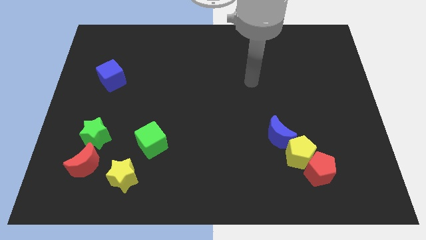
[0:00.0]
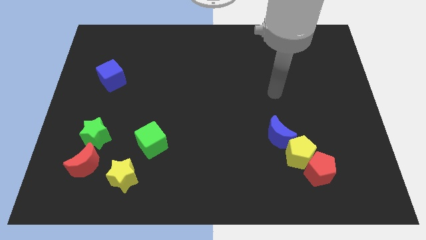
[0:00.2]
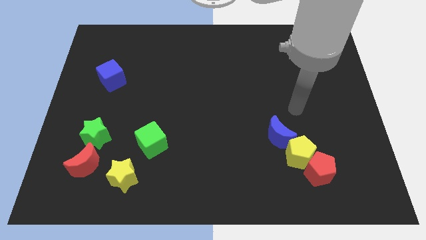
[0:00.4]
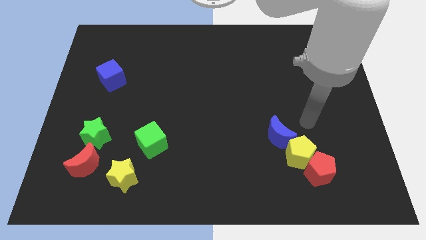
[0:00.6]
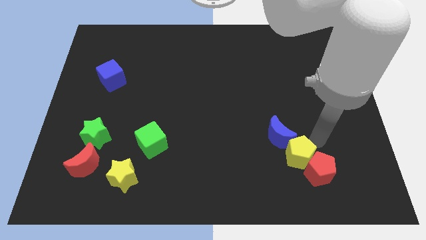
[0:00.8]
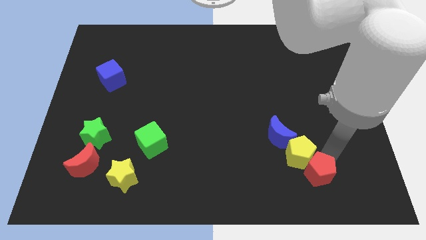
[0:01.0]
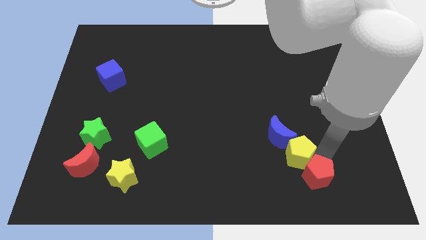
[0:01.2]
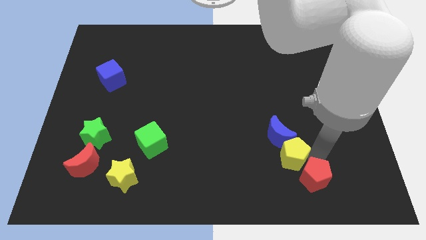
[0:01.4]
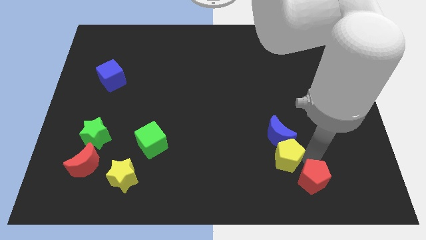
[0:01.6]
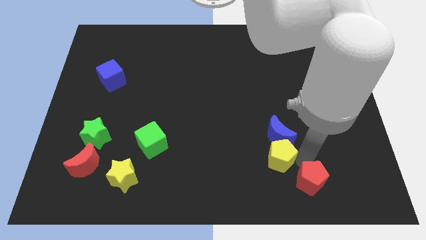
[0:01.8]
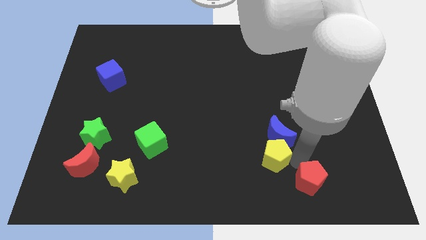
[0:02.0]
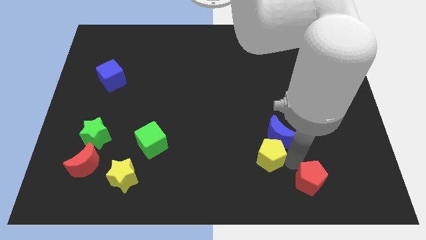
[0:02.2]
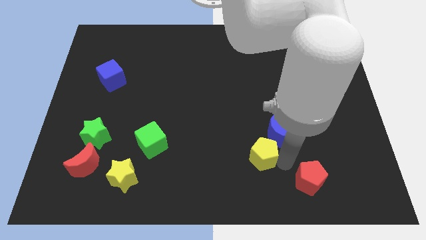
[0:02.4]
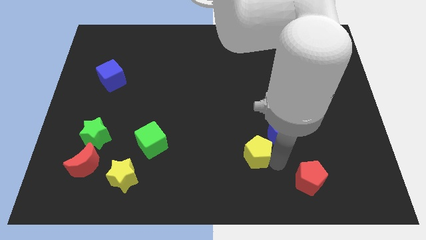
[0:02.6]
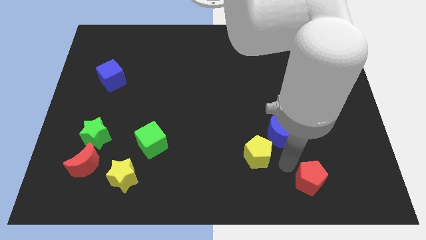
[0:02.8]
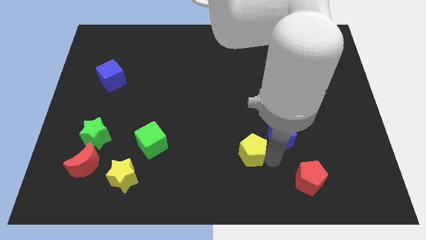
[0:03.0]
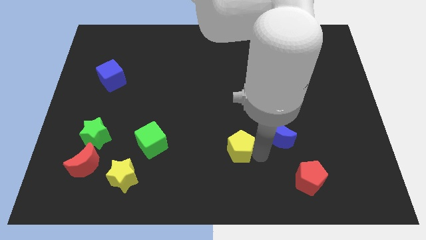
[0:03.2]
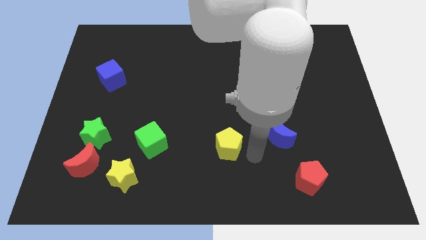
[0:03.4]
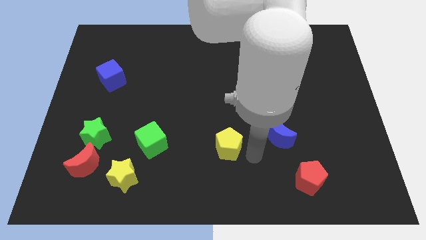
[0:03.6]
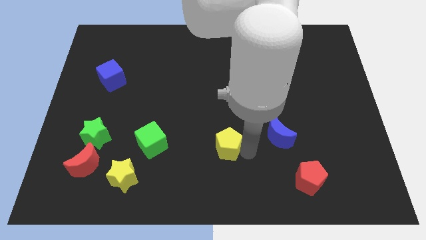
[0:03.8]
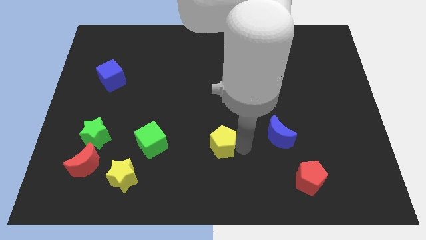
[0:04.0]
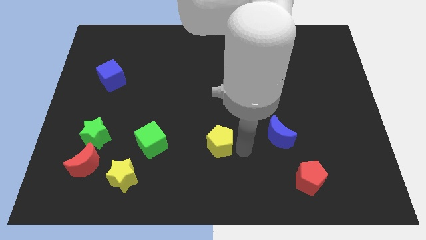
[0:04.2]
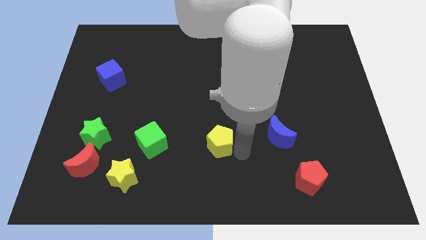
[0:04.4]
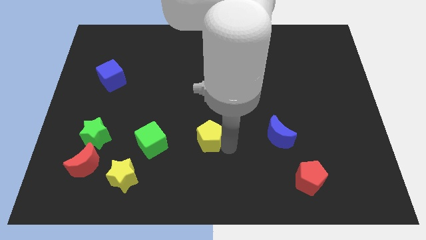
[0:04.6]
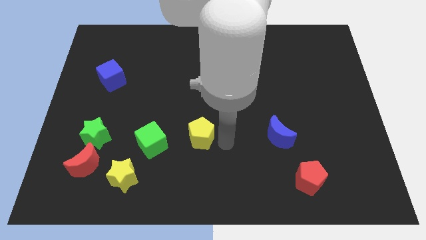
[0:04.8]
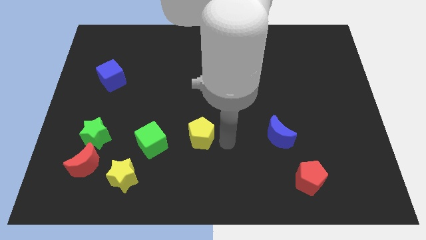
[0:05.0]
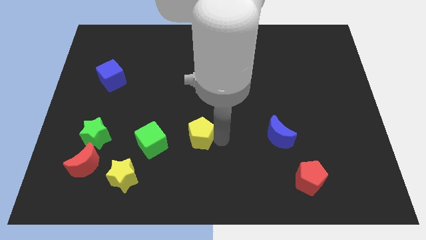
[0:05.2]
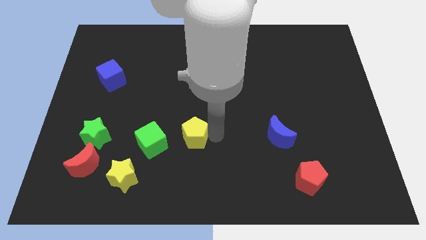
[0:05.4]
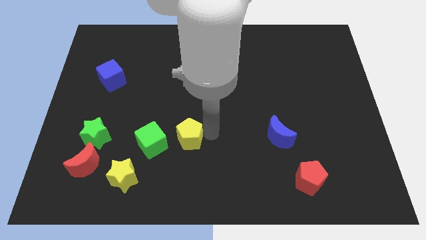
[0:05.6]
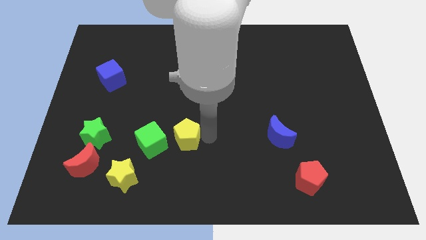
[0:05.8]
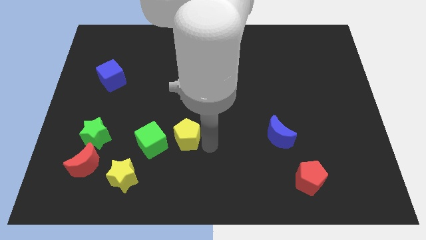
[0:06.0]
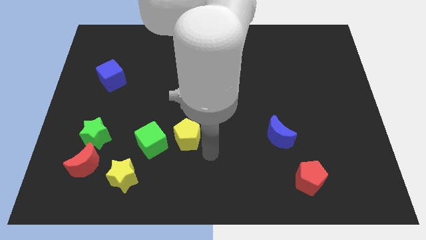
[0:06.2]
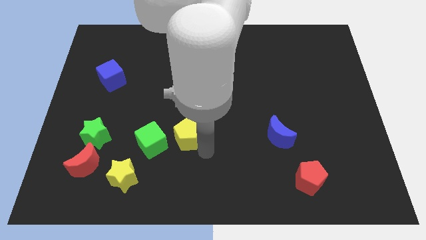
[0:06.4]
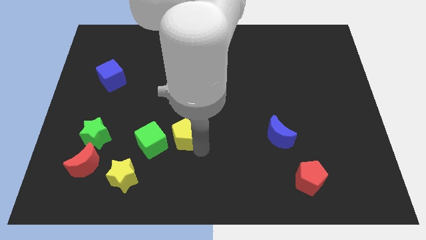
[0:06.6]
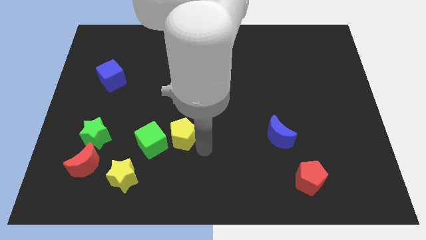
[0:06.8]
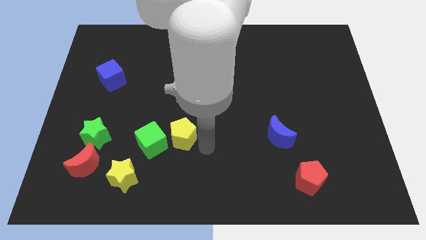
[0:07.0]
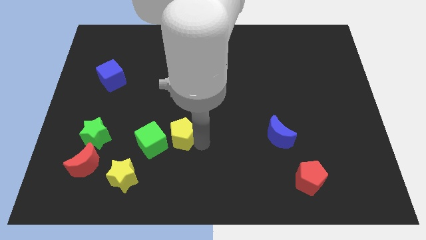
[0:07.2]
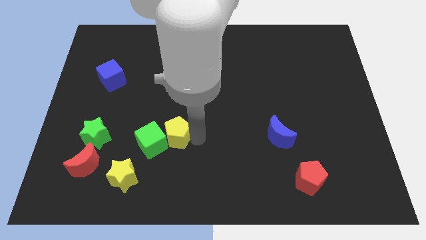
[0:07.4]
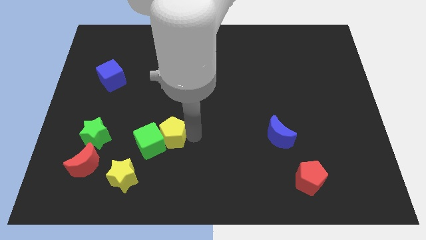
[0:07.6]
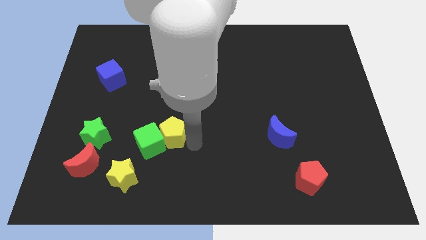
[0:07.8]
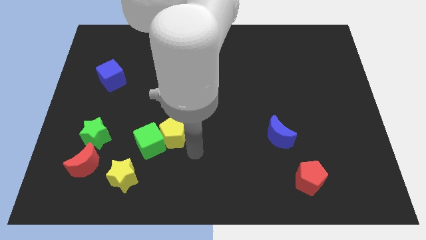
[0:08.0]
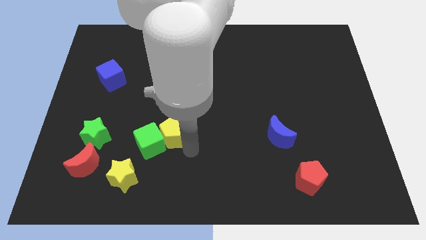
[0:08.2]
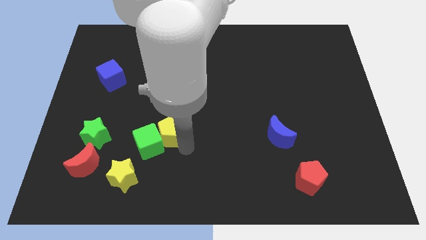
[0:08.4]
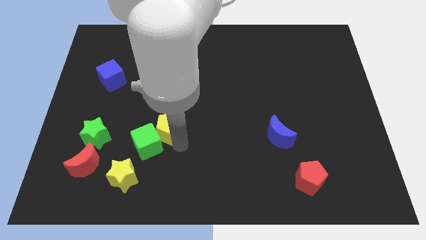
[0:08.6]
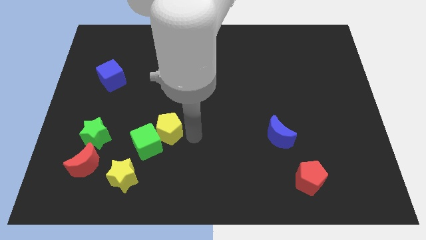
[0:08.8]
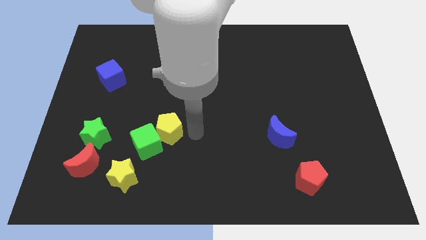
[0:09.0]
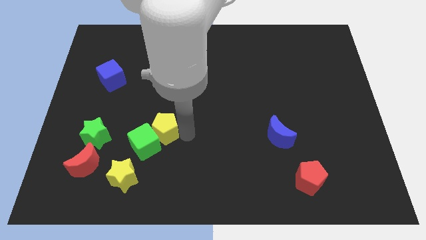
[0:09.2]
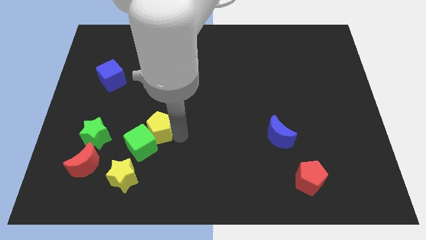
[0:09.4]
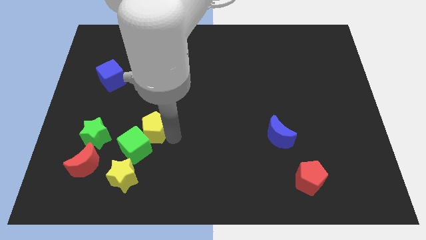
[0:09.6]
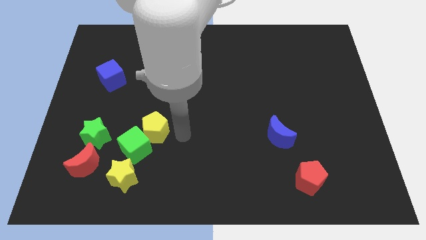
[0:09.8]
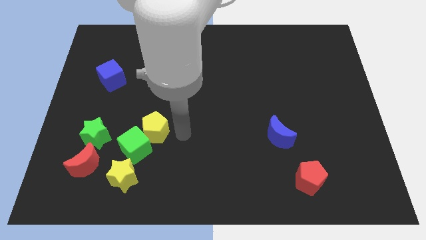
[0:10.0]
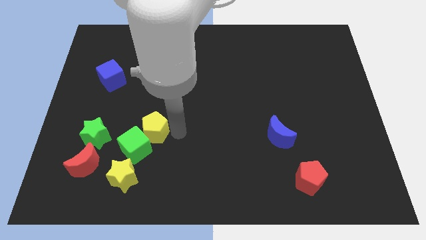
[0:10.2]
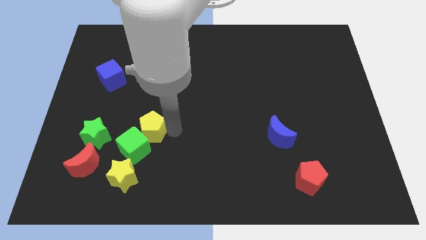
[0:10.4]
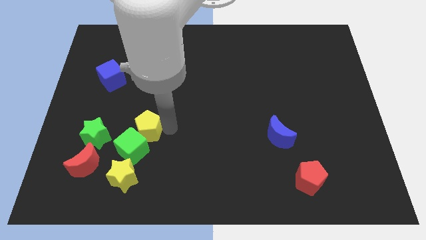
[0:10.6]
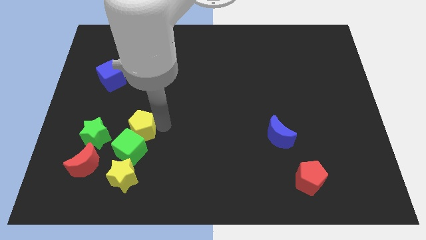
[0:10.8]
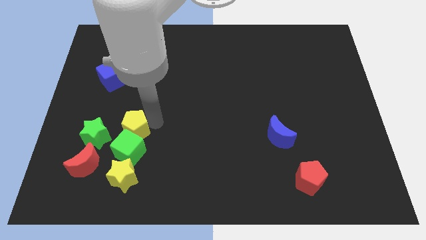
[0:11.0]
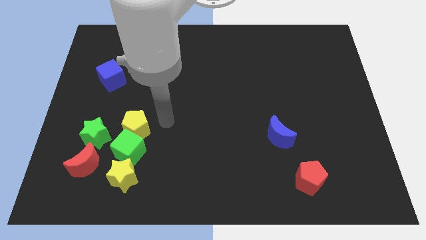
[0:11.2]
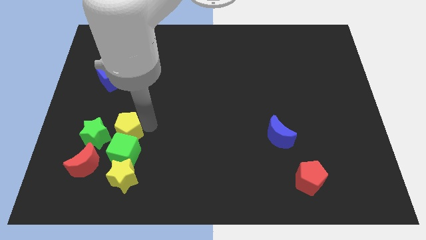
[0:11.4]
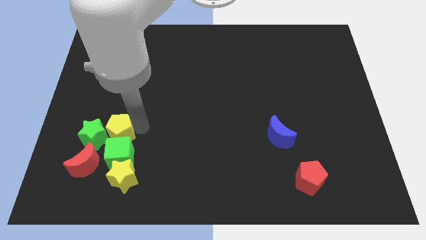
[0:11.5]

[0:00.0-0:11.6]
move the yellow pentagon towards the green star

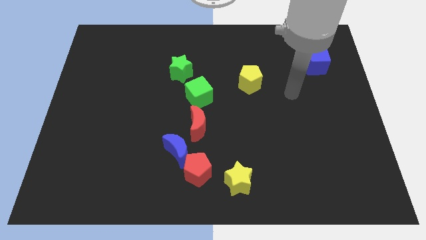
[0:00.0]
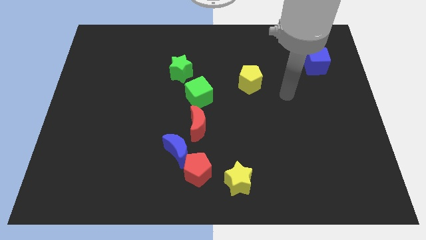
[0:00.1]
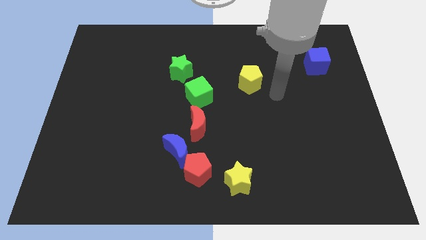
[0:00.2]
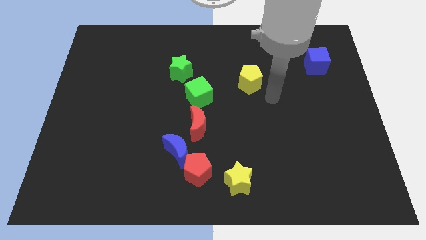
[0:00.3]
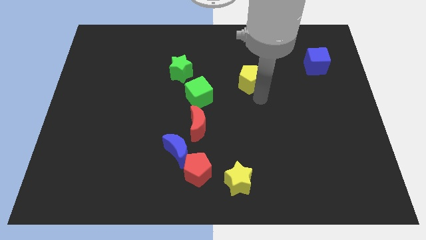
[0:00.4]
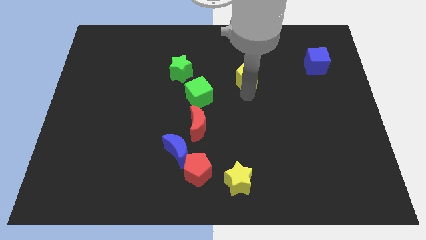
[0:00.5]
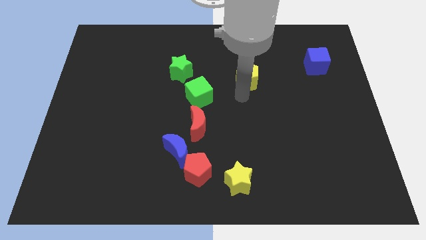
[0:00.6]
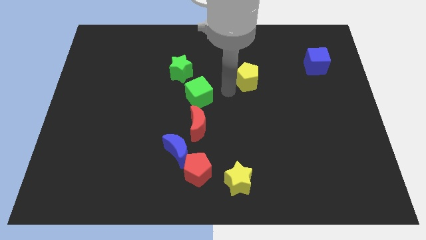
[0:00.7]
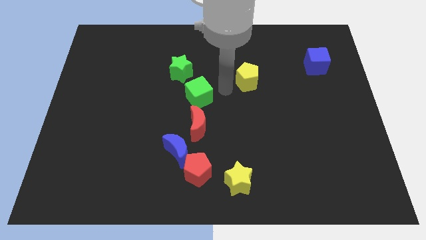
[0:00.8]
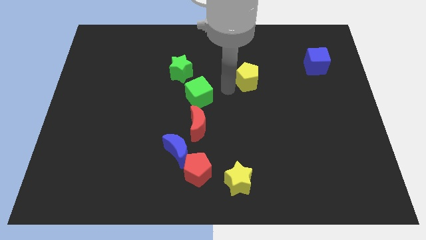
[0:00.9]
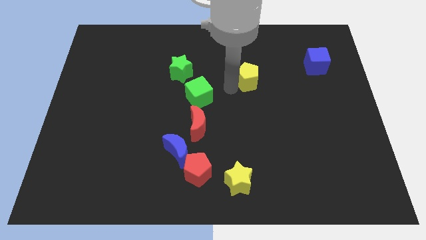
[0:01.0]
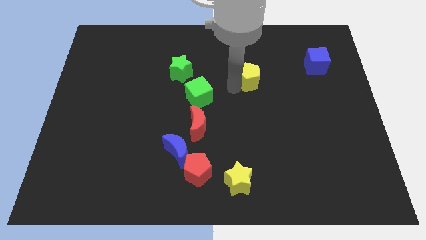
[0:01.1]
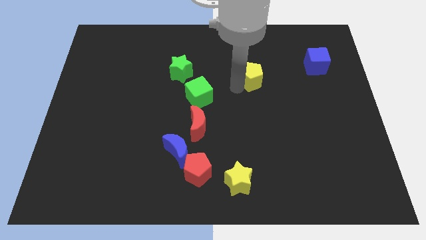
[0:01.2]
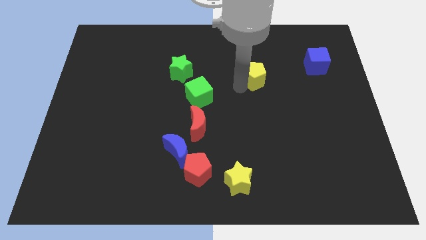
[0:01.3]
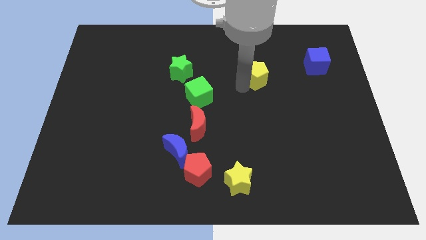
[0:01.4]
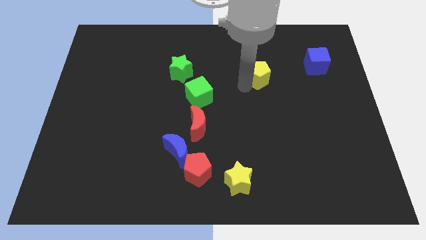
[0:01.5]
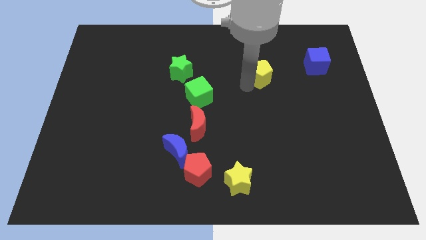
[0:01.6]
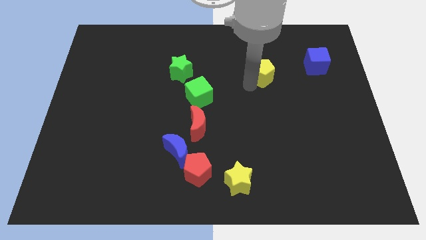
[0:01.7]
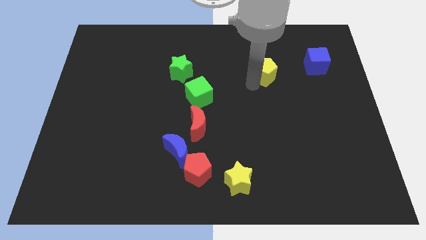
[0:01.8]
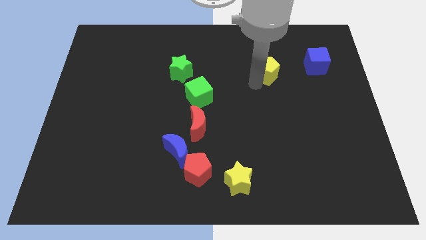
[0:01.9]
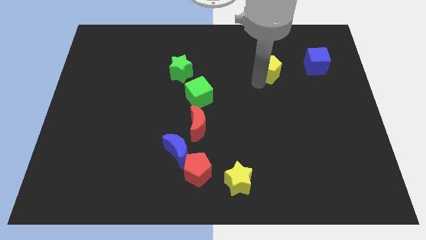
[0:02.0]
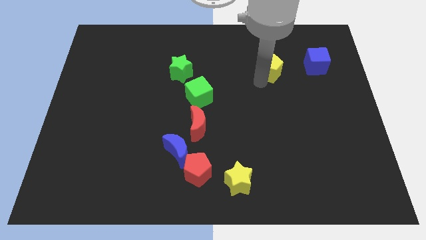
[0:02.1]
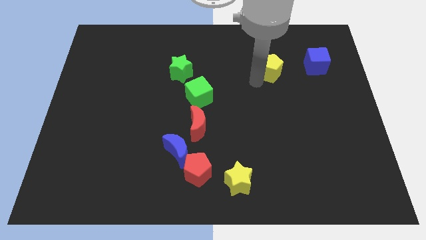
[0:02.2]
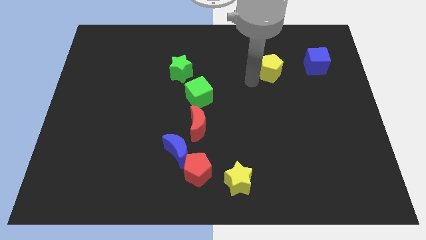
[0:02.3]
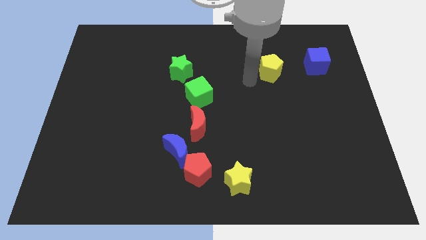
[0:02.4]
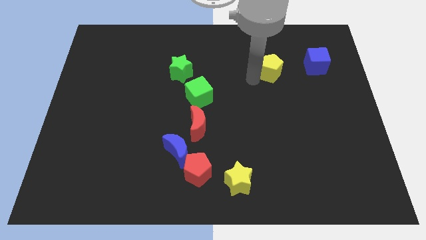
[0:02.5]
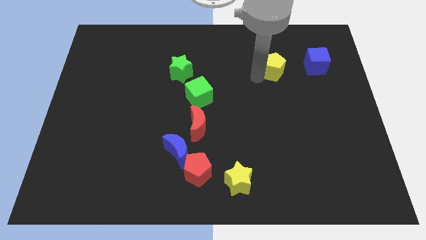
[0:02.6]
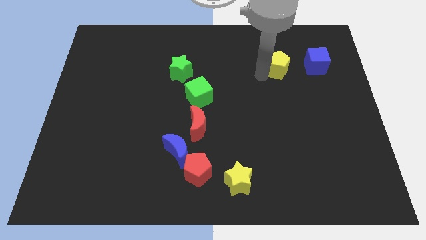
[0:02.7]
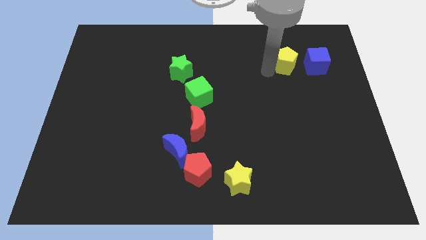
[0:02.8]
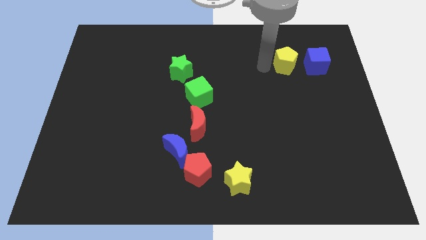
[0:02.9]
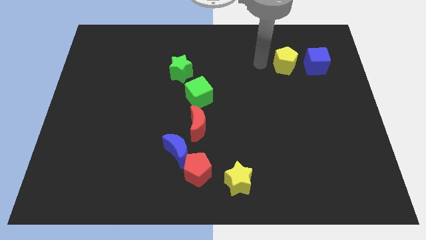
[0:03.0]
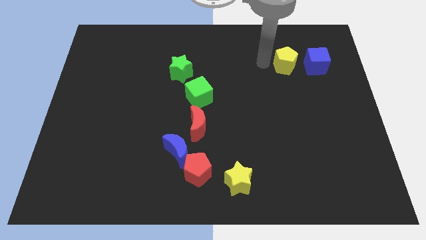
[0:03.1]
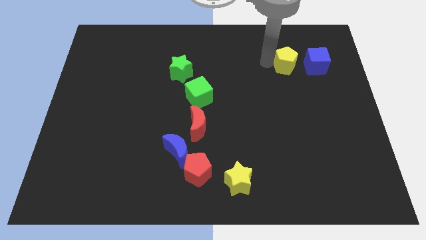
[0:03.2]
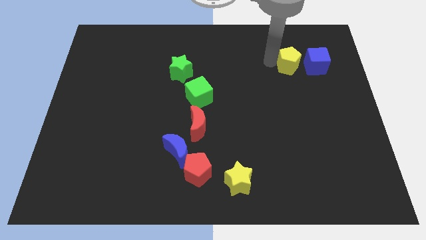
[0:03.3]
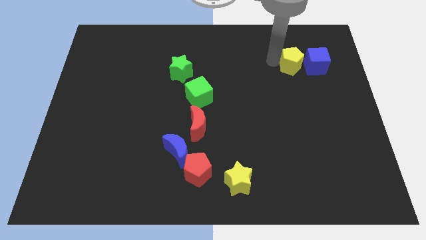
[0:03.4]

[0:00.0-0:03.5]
put the yellow pentagon towards the blue cube
